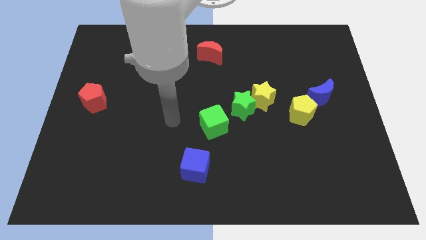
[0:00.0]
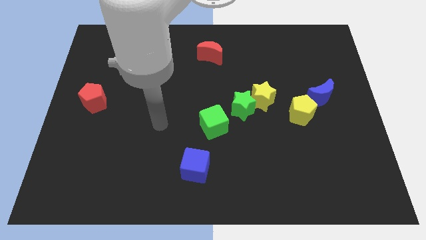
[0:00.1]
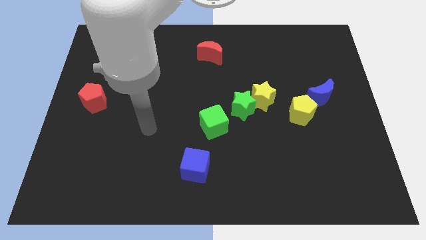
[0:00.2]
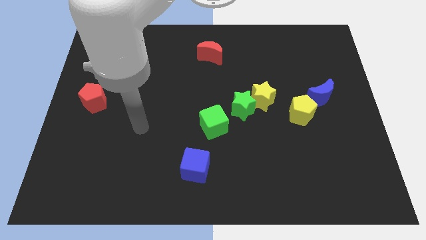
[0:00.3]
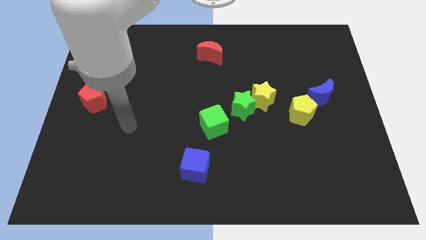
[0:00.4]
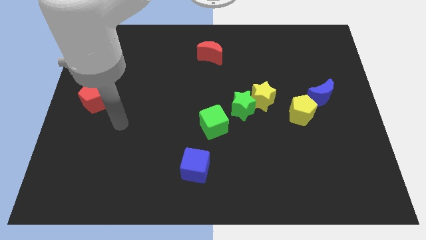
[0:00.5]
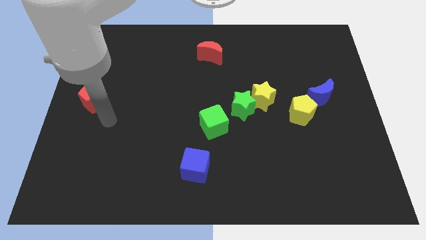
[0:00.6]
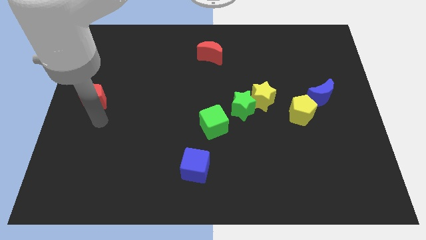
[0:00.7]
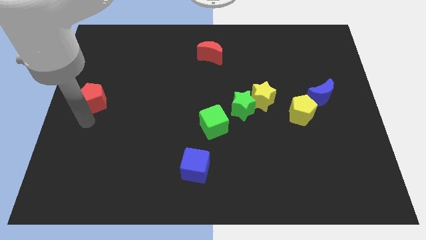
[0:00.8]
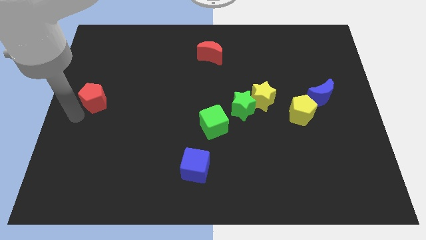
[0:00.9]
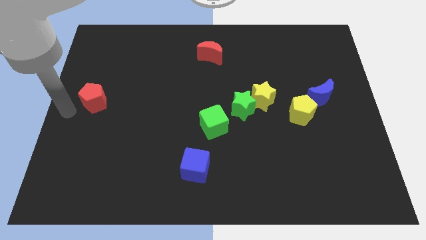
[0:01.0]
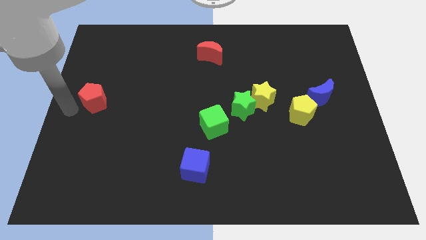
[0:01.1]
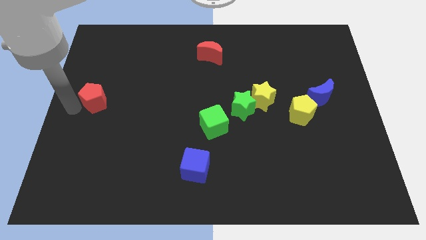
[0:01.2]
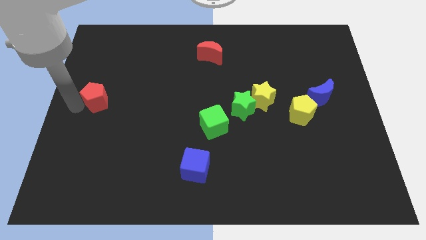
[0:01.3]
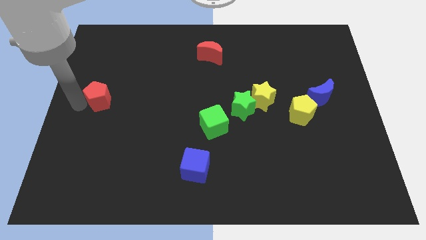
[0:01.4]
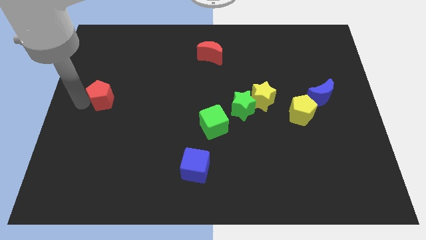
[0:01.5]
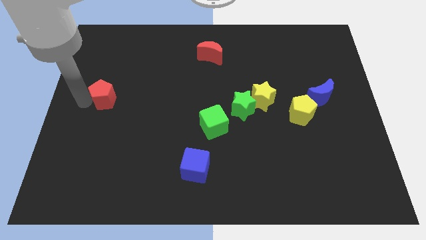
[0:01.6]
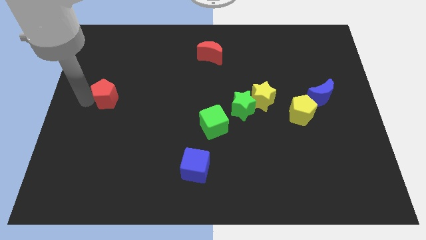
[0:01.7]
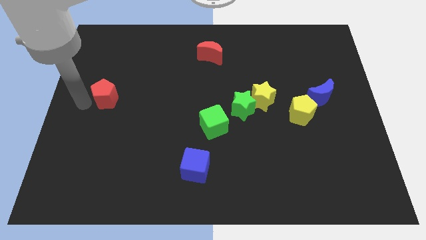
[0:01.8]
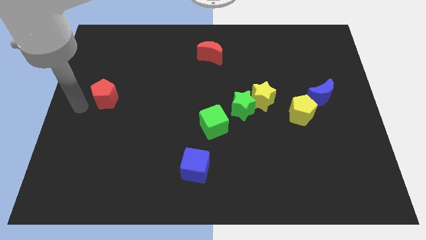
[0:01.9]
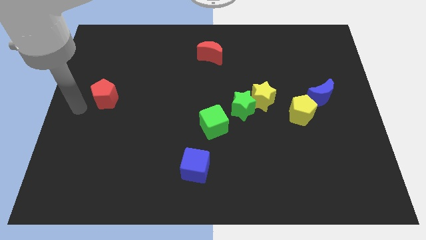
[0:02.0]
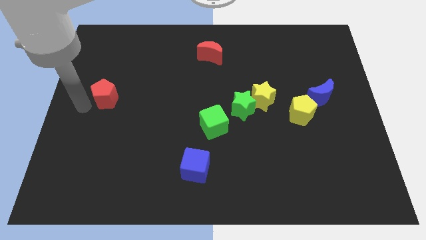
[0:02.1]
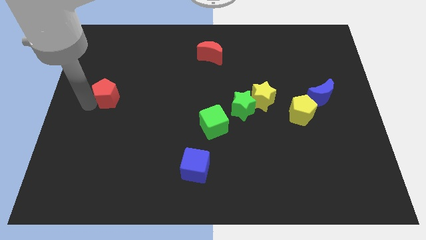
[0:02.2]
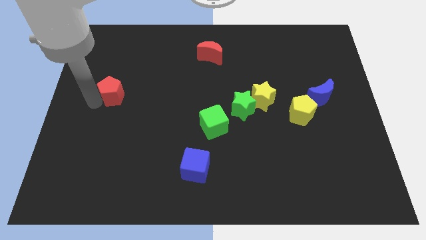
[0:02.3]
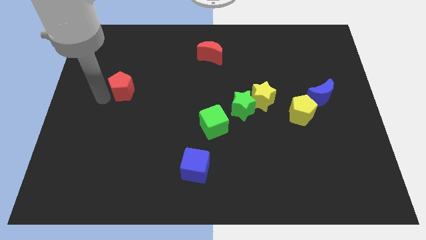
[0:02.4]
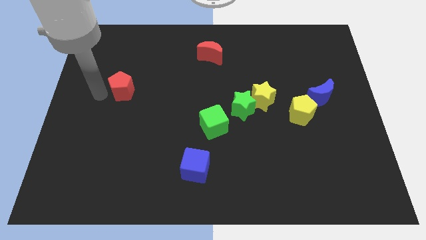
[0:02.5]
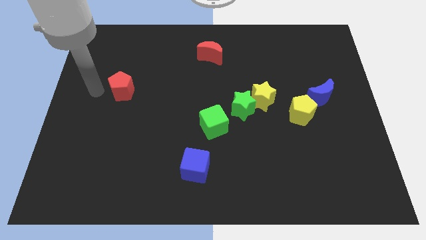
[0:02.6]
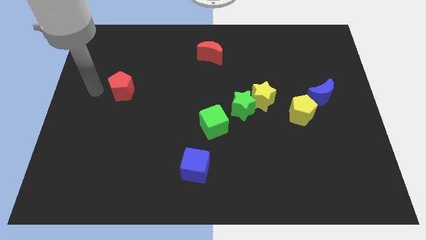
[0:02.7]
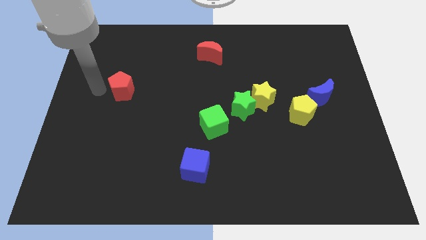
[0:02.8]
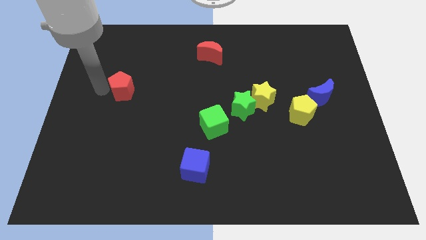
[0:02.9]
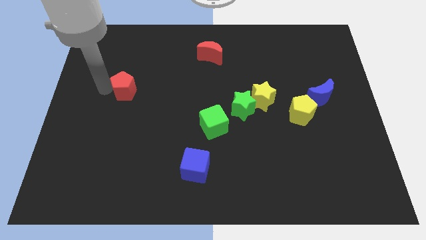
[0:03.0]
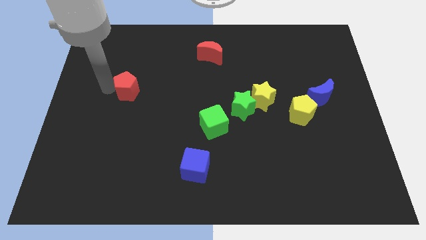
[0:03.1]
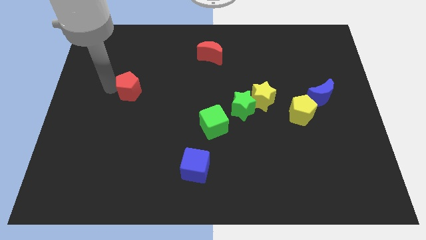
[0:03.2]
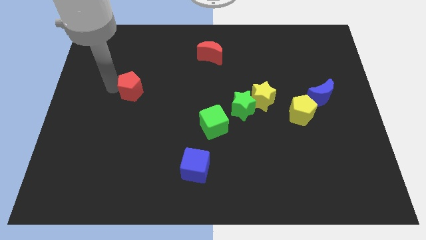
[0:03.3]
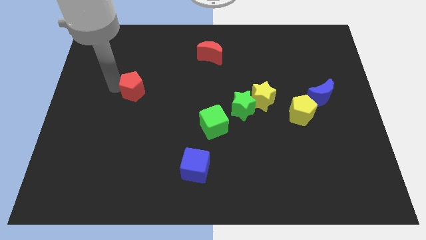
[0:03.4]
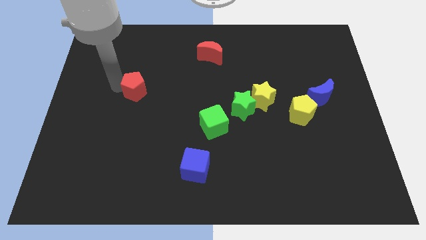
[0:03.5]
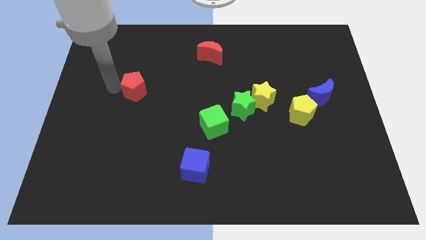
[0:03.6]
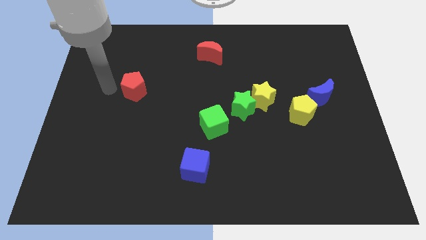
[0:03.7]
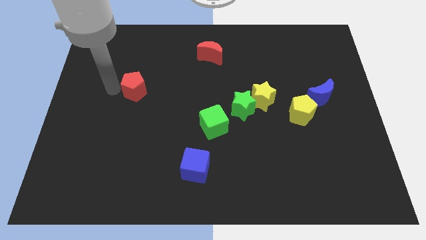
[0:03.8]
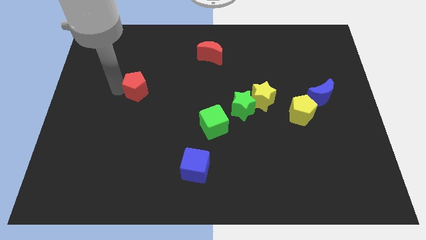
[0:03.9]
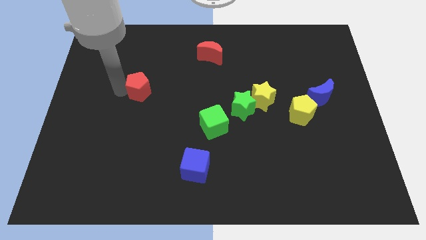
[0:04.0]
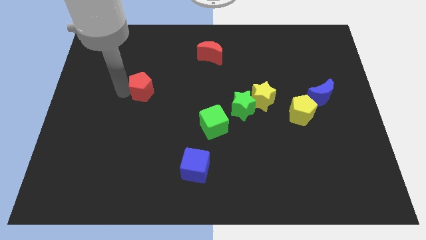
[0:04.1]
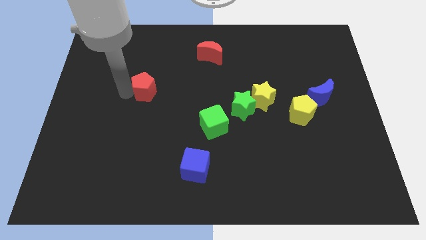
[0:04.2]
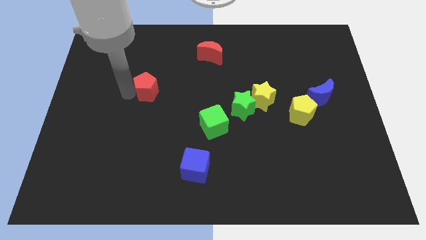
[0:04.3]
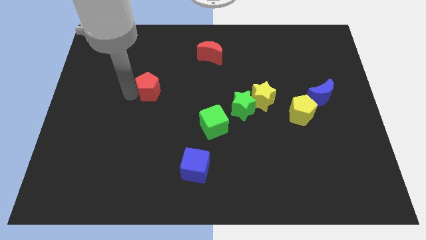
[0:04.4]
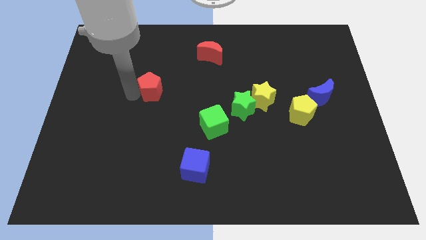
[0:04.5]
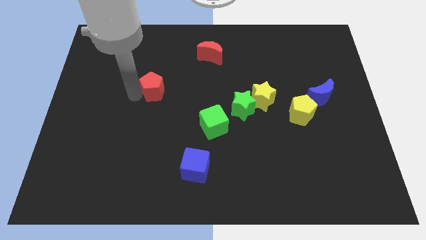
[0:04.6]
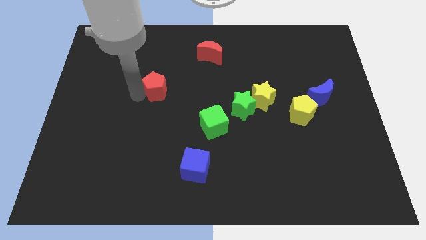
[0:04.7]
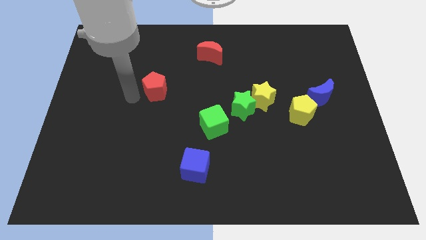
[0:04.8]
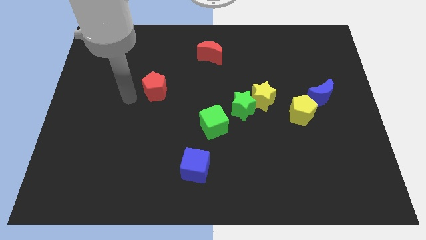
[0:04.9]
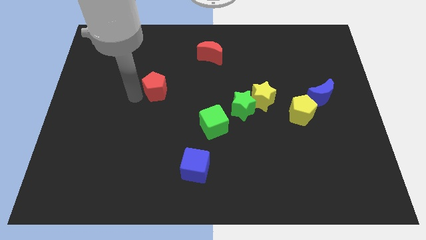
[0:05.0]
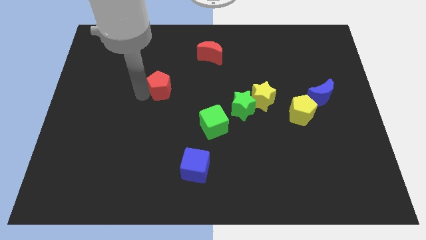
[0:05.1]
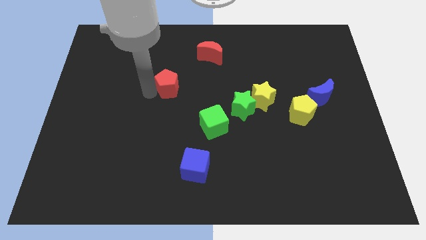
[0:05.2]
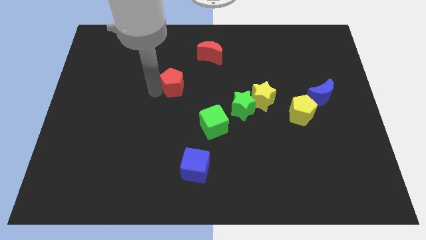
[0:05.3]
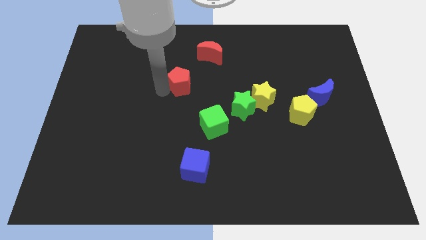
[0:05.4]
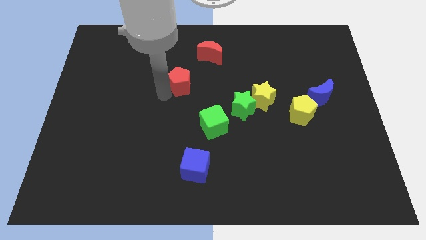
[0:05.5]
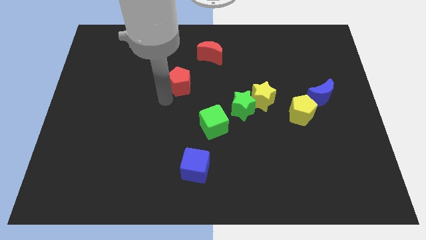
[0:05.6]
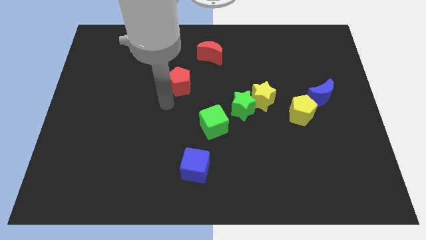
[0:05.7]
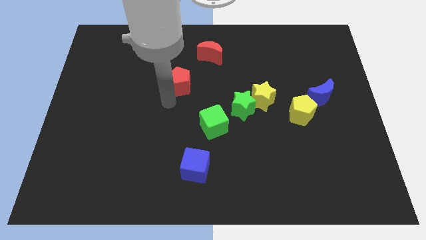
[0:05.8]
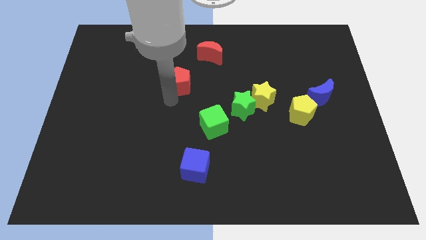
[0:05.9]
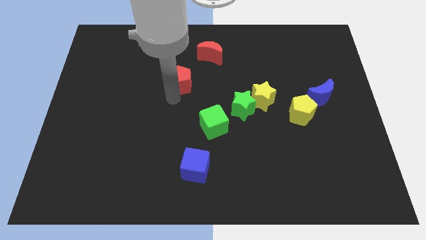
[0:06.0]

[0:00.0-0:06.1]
put the red pentagon diagonally down and to the left of the red moon

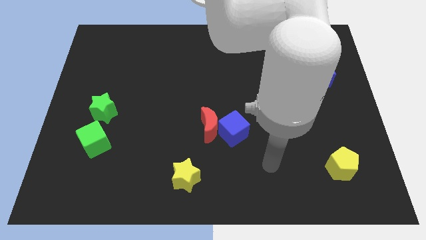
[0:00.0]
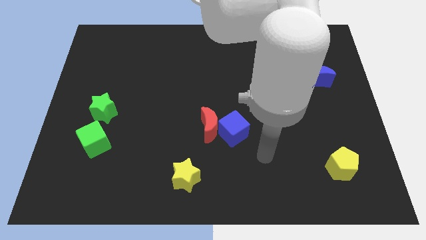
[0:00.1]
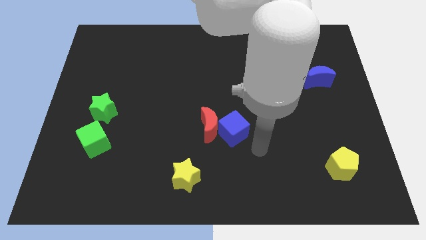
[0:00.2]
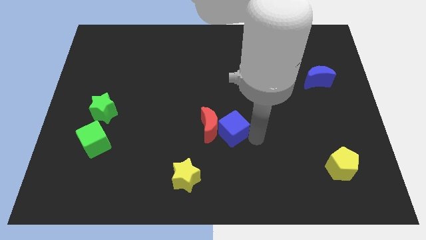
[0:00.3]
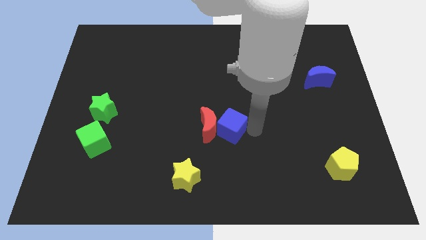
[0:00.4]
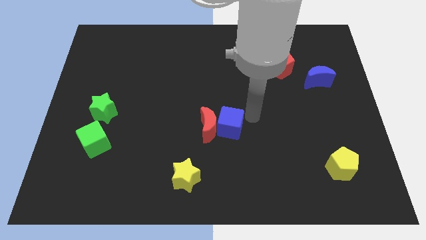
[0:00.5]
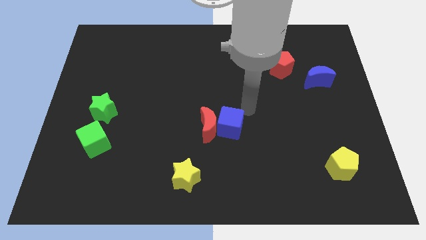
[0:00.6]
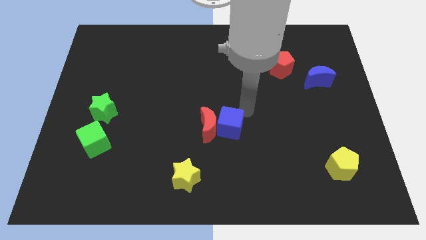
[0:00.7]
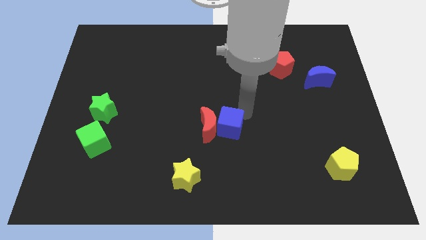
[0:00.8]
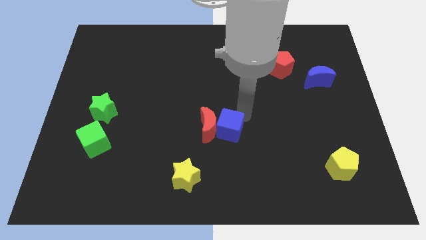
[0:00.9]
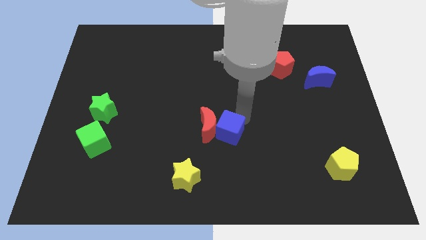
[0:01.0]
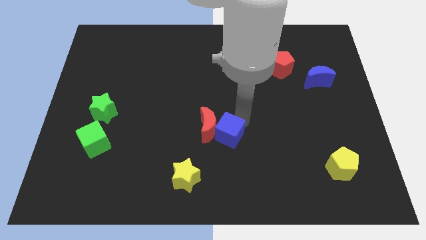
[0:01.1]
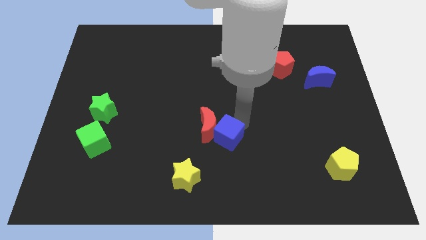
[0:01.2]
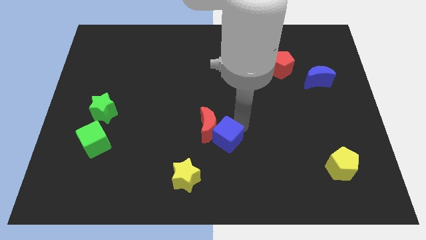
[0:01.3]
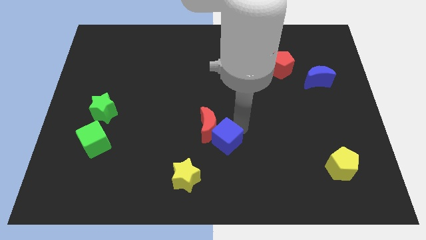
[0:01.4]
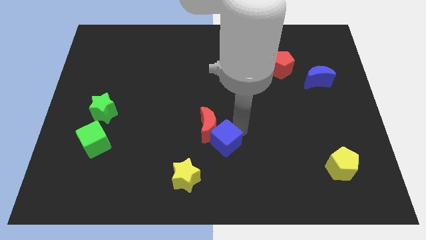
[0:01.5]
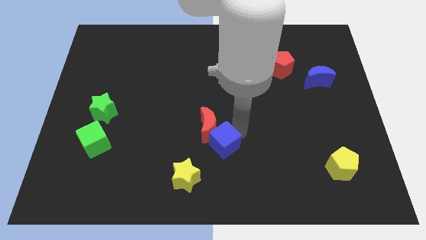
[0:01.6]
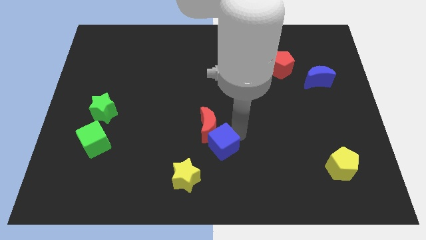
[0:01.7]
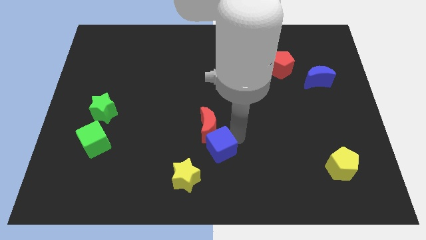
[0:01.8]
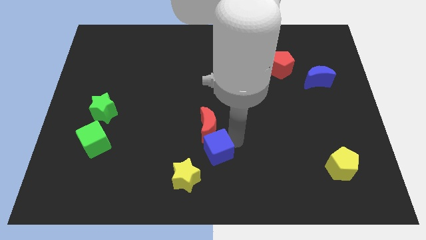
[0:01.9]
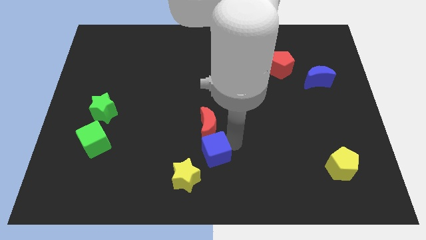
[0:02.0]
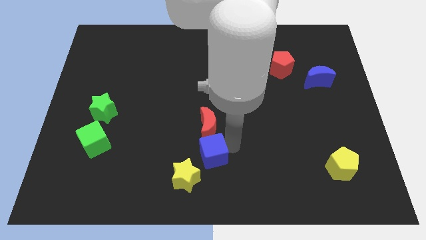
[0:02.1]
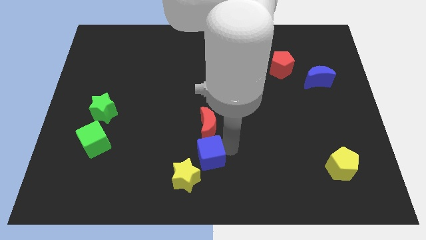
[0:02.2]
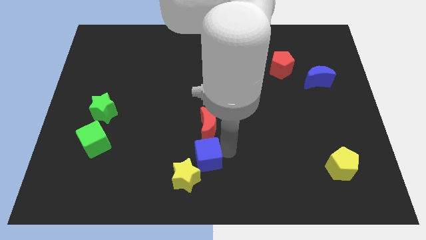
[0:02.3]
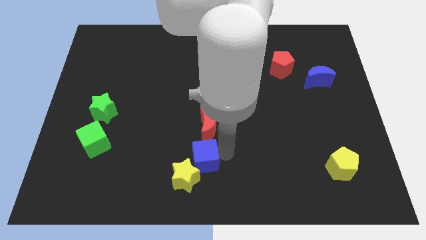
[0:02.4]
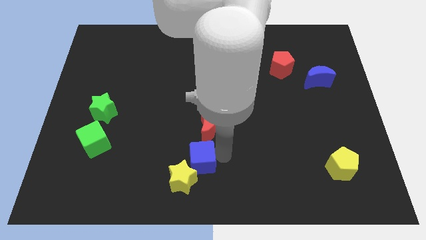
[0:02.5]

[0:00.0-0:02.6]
put the blue cube to the bottom left of the red moon

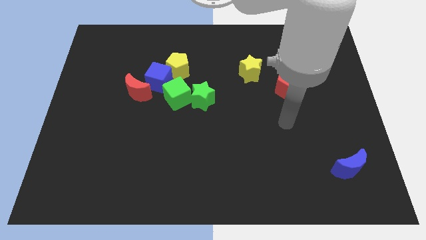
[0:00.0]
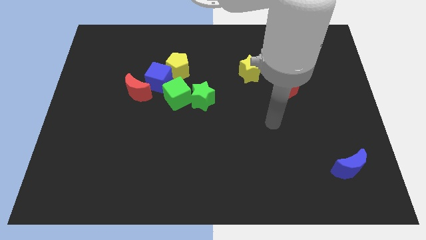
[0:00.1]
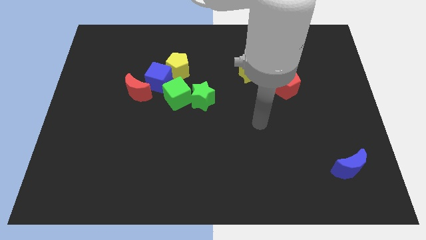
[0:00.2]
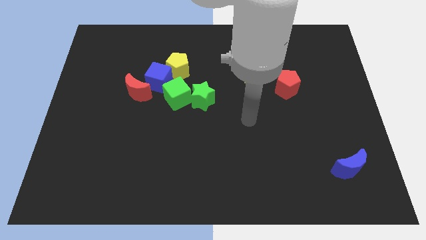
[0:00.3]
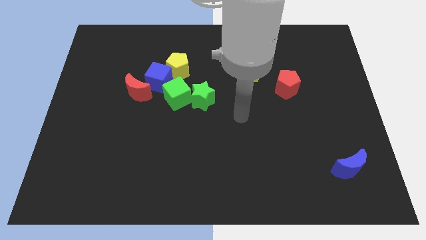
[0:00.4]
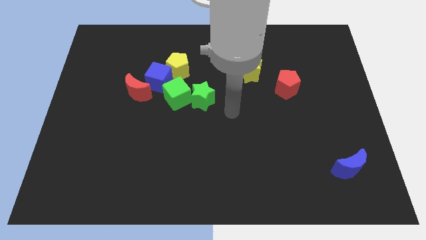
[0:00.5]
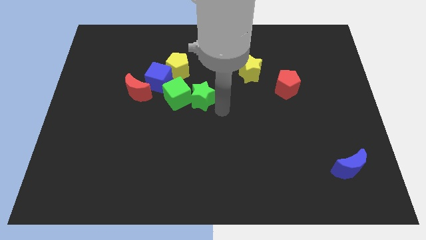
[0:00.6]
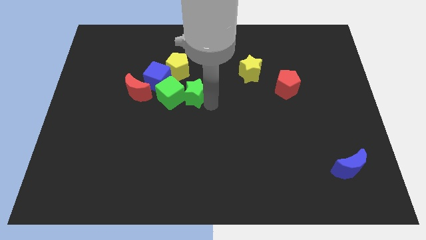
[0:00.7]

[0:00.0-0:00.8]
slide the green cube to the bottom right of the red moon
